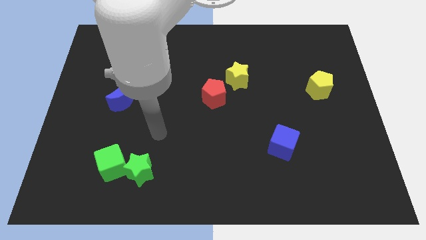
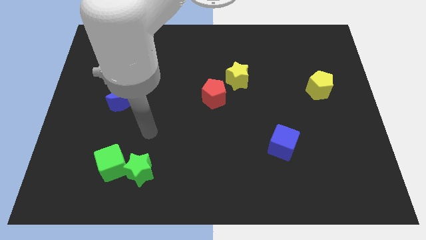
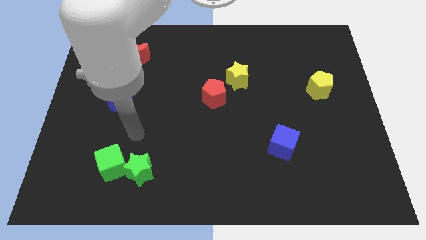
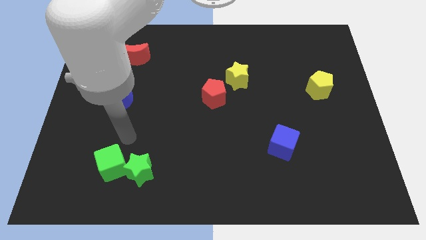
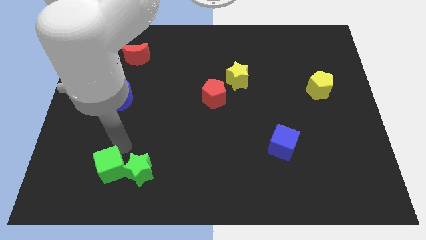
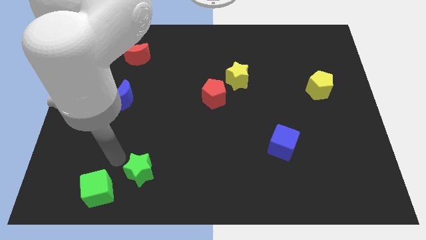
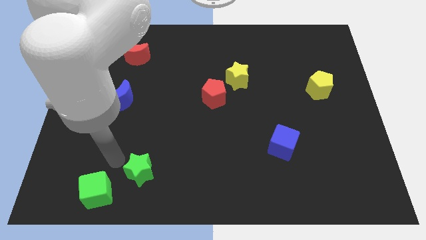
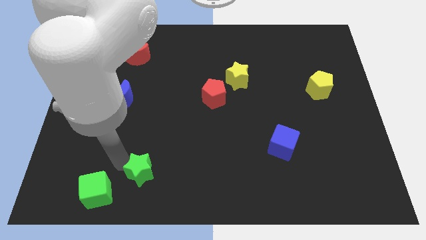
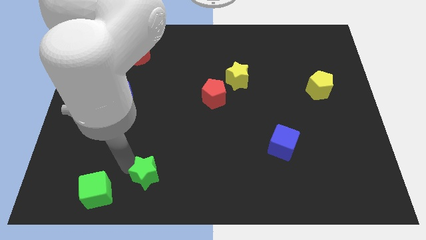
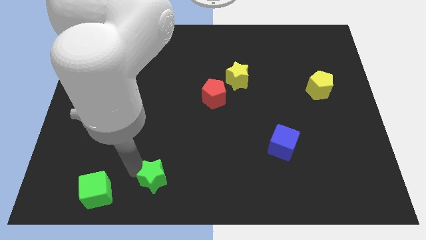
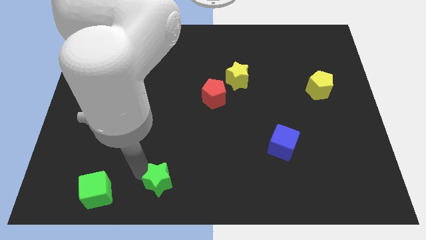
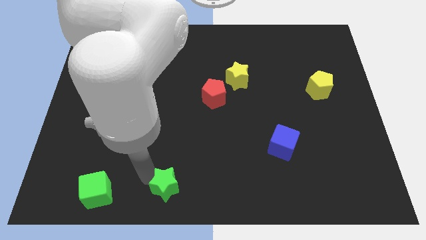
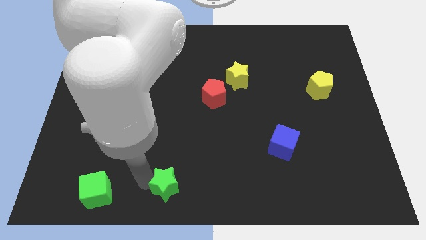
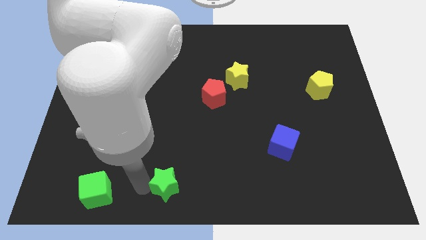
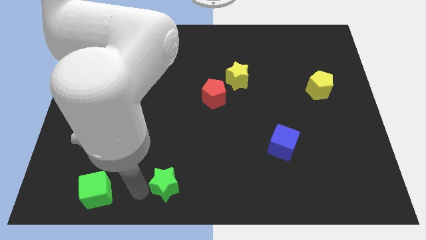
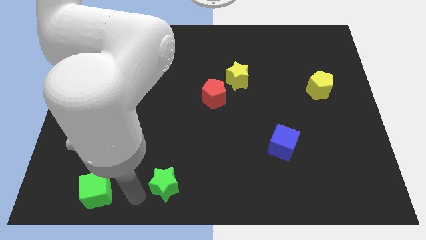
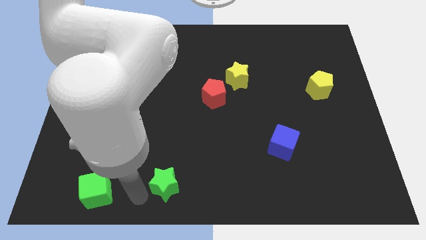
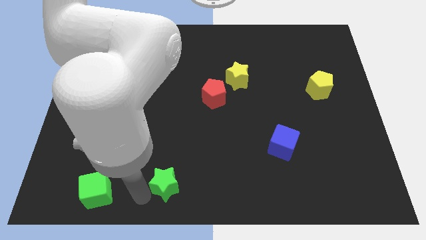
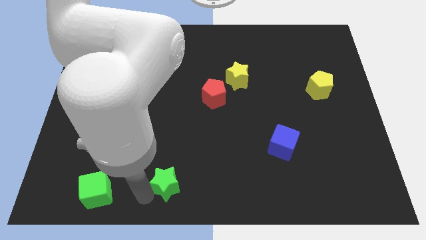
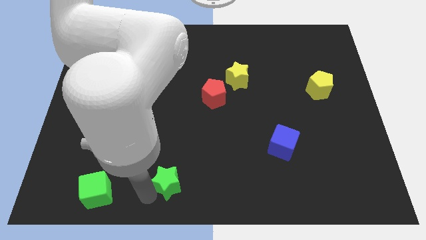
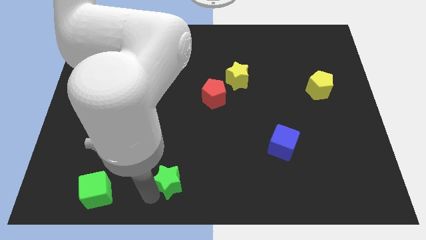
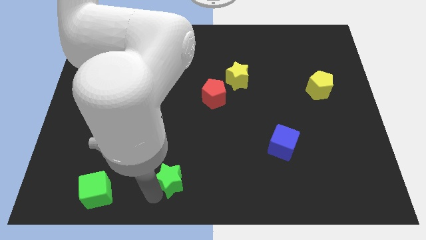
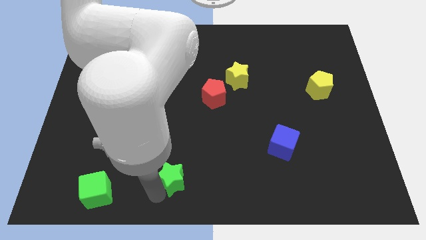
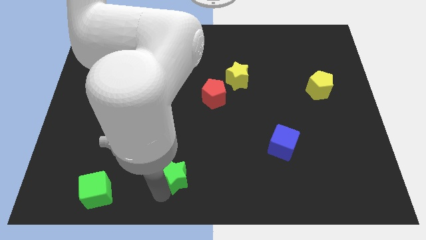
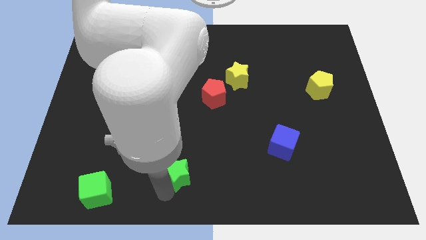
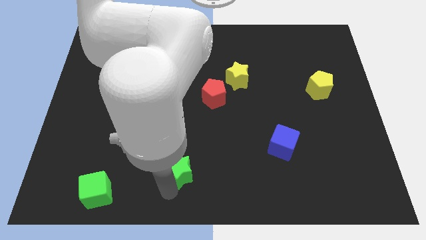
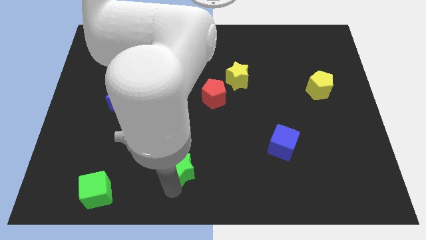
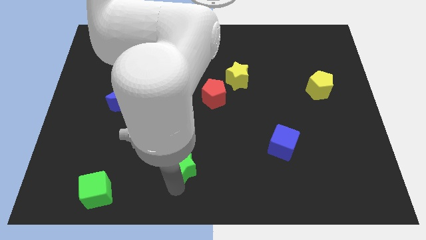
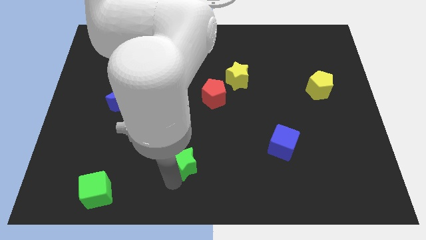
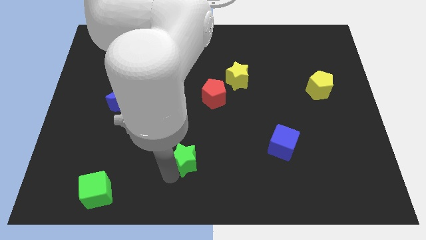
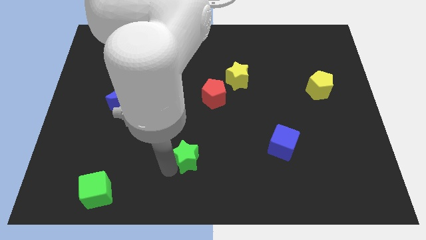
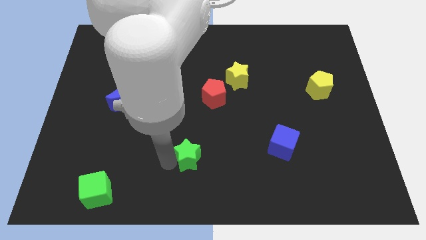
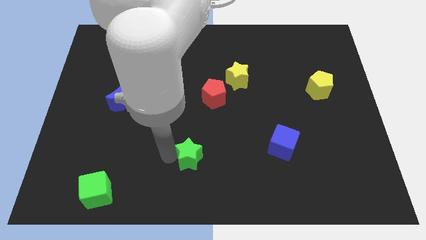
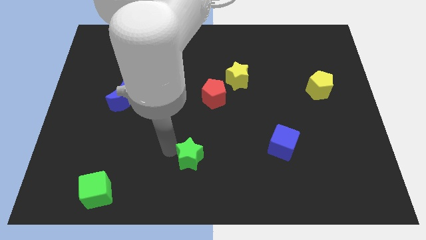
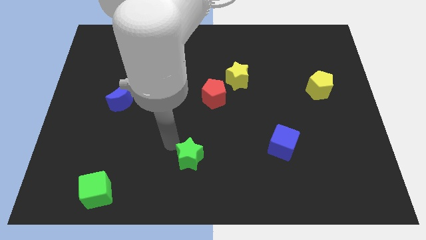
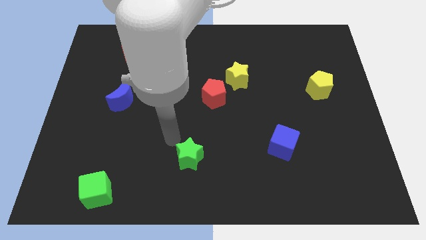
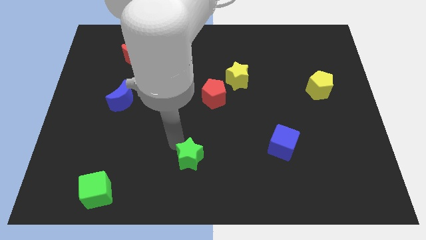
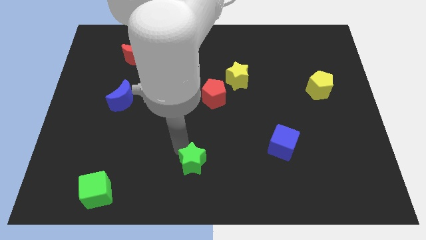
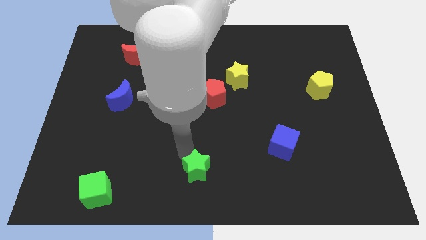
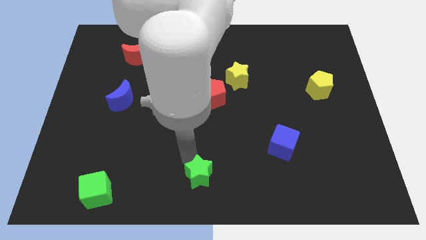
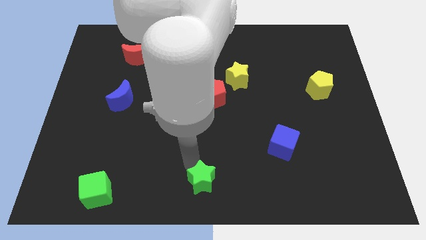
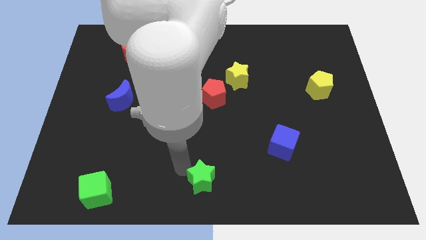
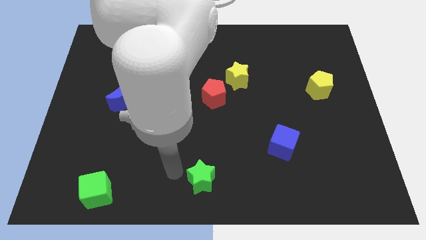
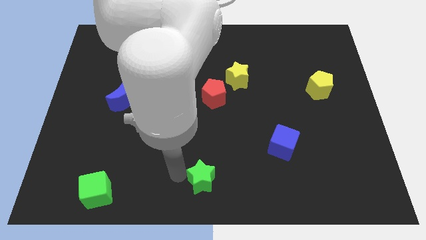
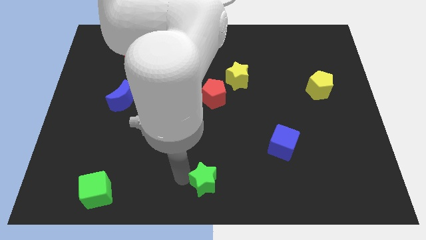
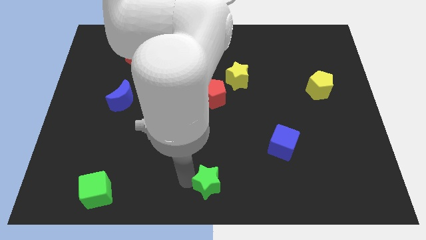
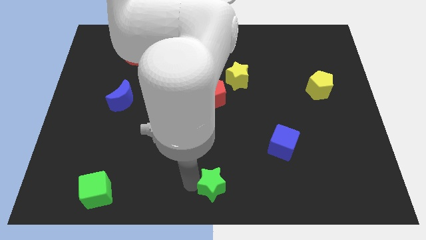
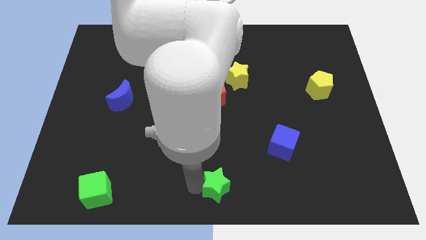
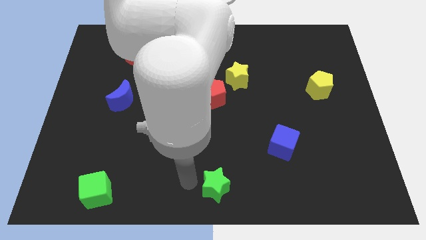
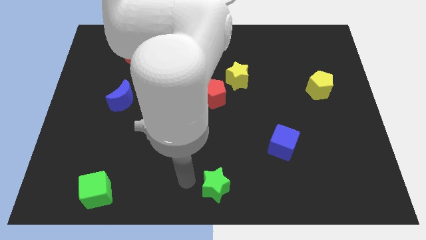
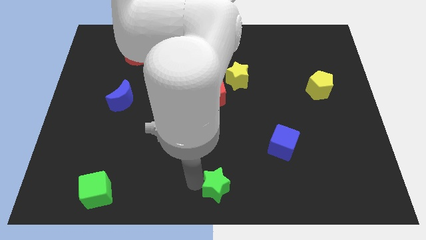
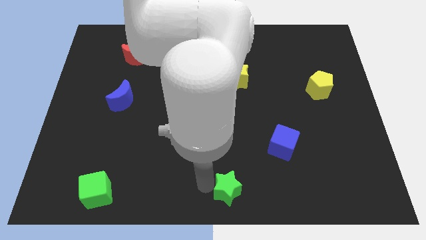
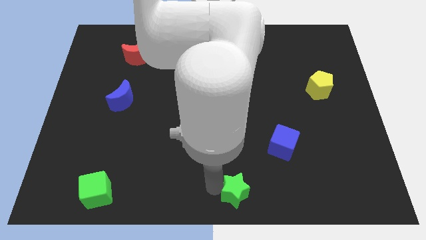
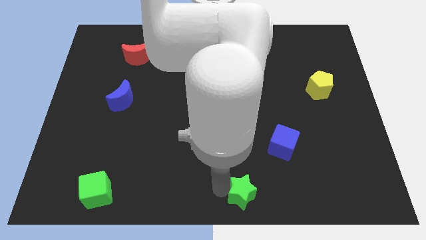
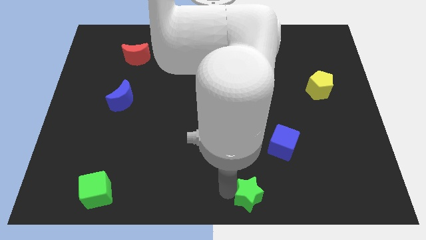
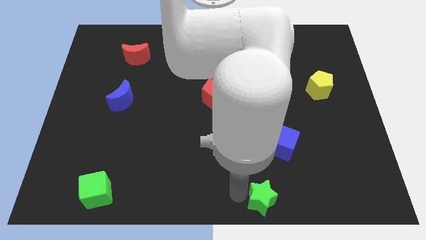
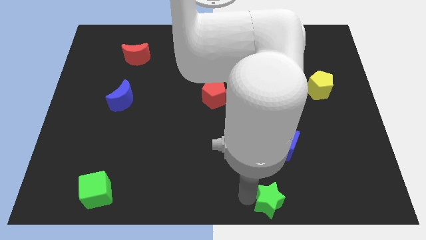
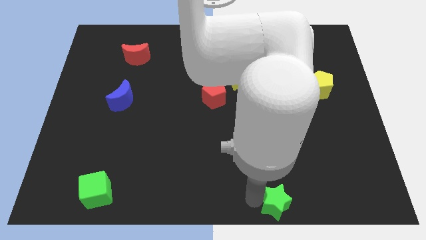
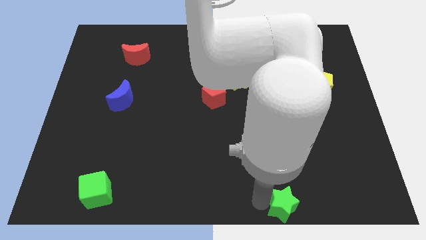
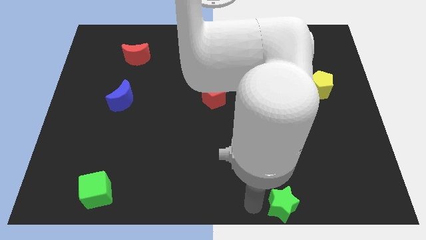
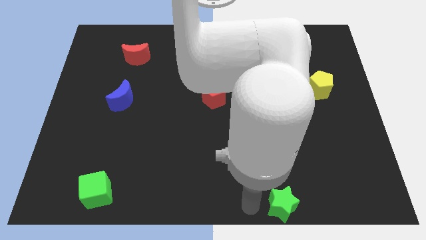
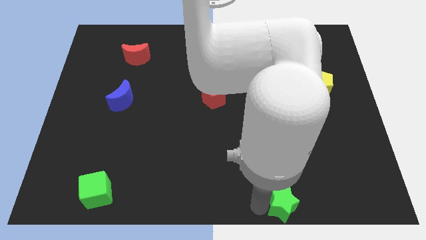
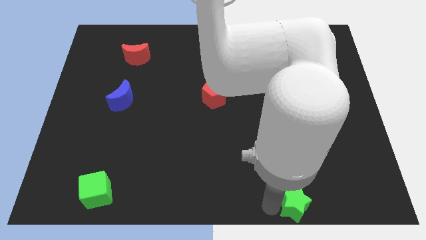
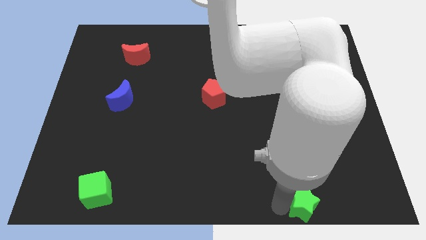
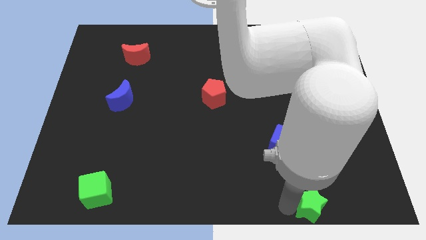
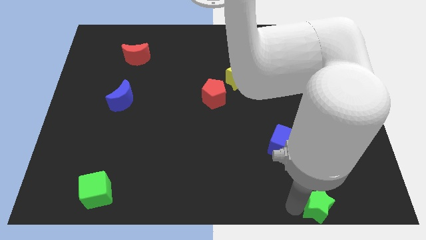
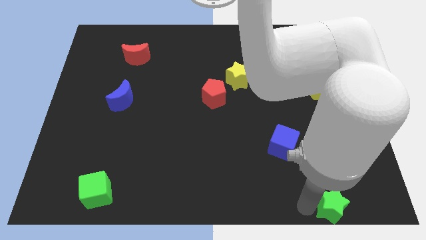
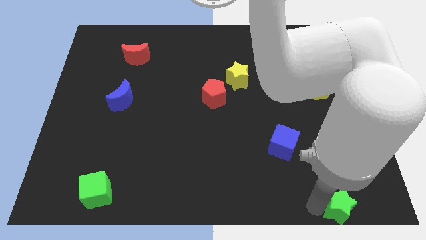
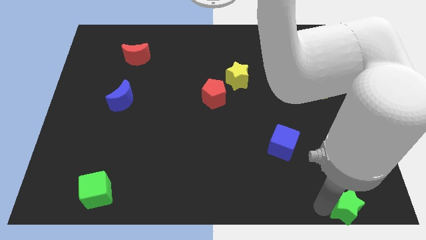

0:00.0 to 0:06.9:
slide the green star to the bottom right of the board
